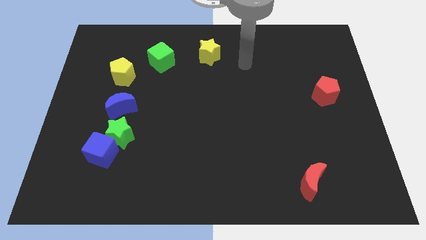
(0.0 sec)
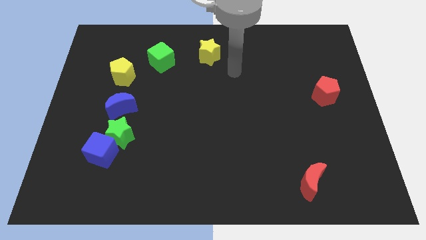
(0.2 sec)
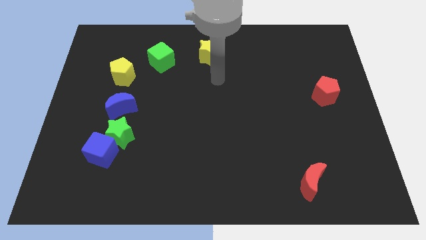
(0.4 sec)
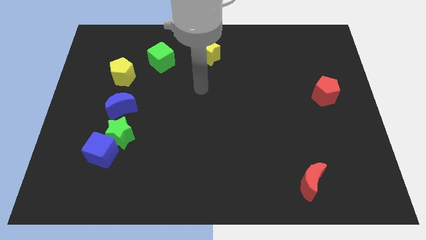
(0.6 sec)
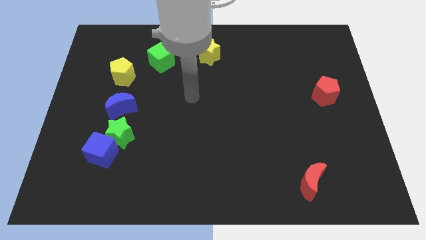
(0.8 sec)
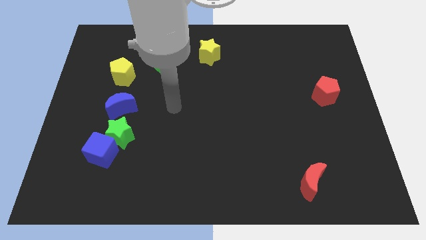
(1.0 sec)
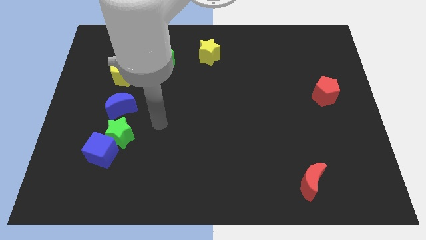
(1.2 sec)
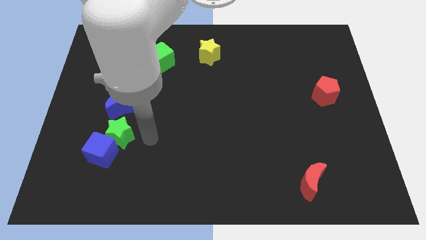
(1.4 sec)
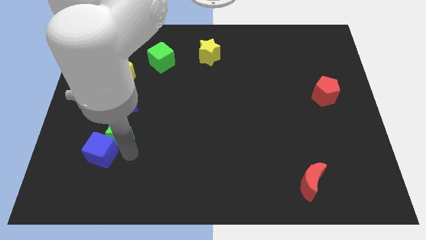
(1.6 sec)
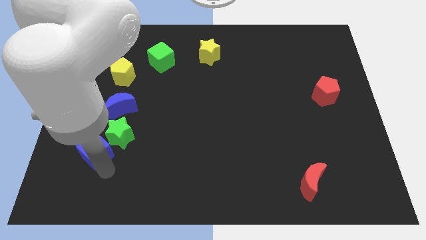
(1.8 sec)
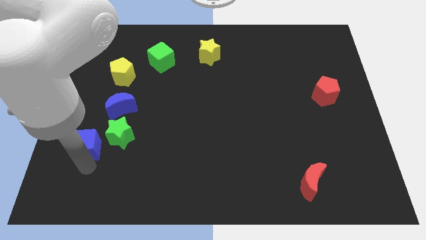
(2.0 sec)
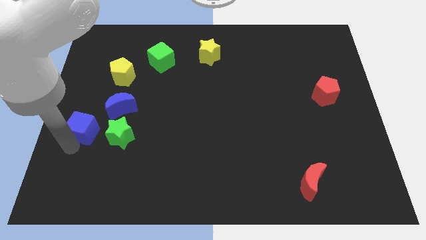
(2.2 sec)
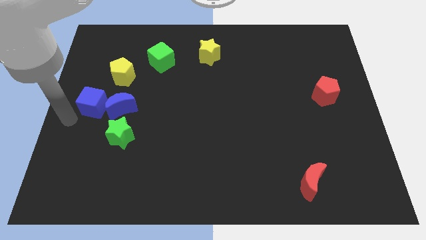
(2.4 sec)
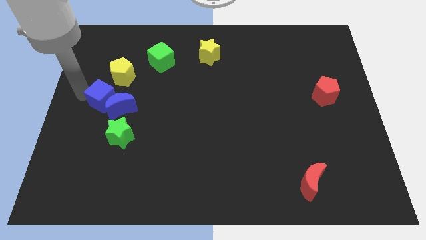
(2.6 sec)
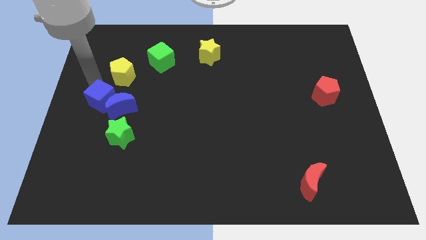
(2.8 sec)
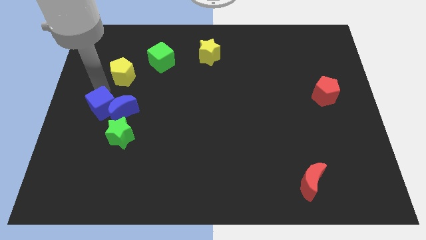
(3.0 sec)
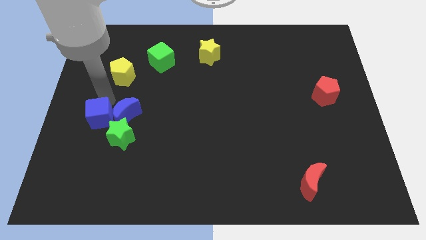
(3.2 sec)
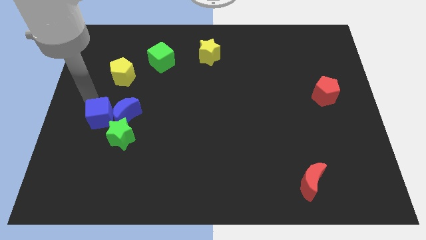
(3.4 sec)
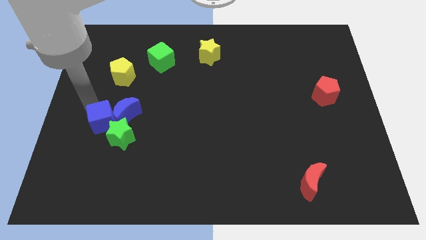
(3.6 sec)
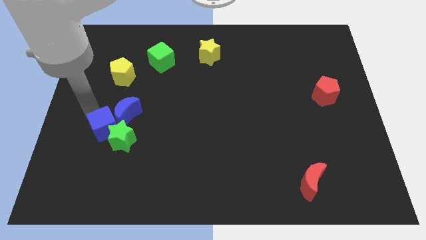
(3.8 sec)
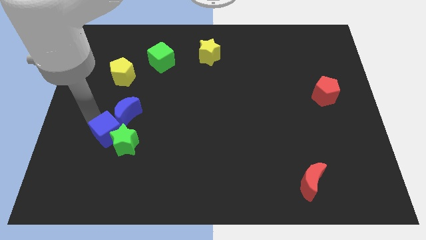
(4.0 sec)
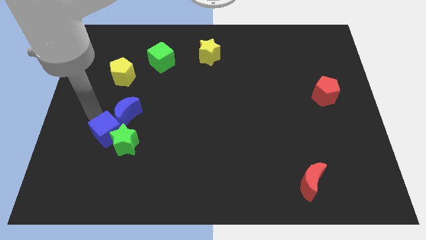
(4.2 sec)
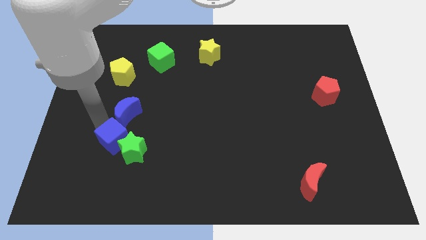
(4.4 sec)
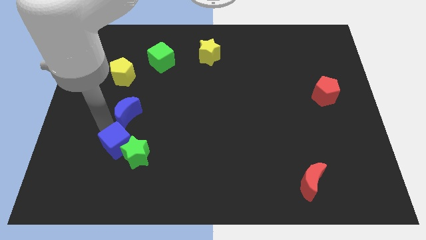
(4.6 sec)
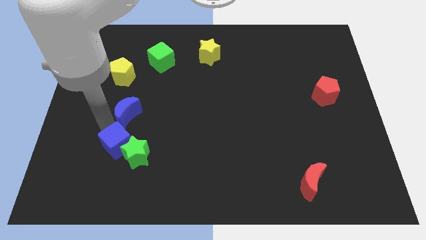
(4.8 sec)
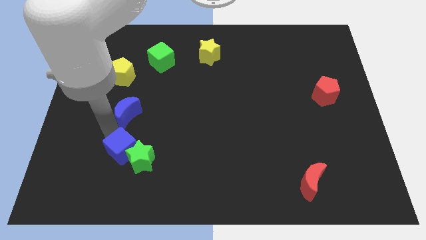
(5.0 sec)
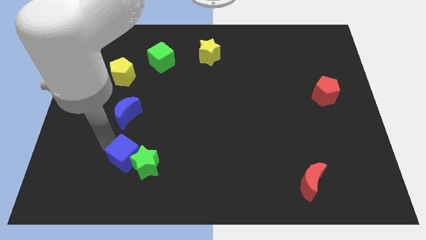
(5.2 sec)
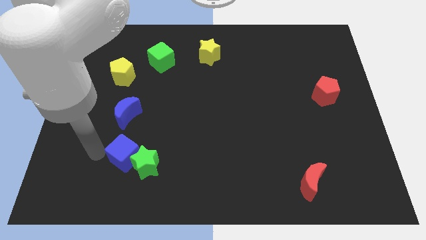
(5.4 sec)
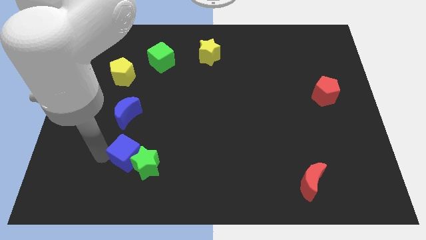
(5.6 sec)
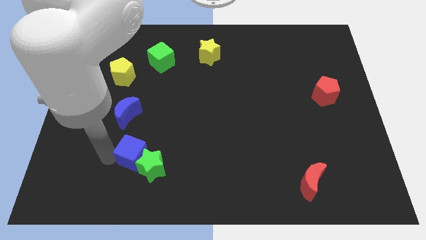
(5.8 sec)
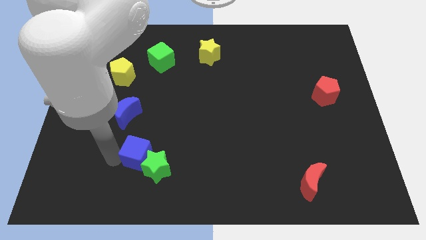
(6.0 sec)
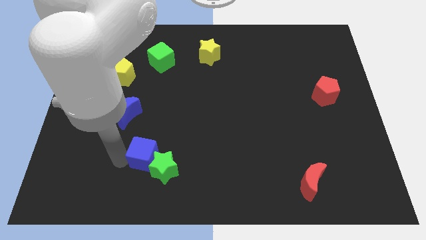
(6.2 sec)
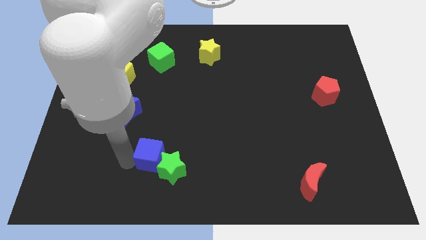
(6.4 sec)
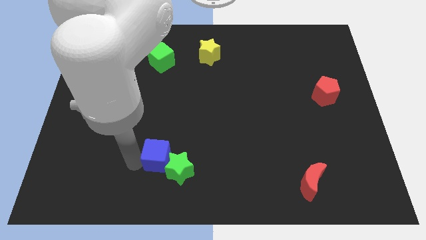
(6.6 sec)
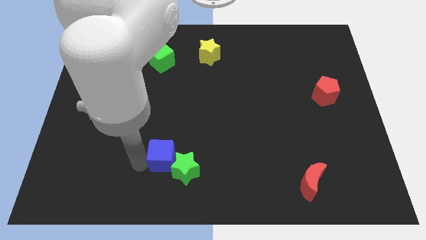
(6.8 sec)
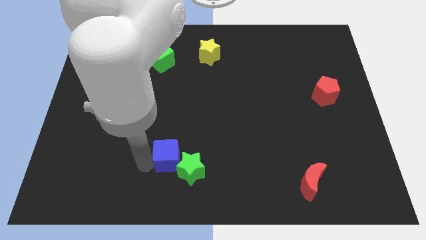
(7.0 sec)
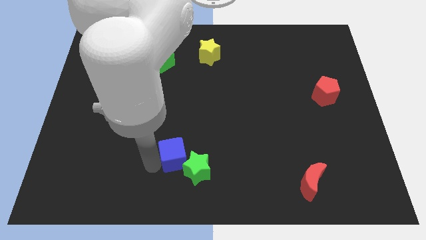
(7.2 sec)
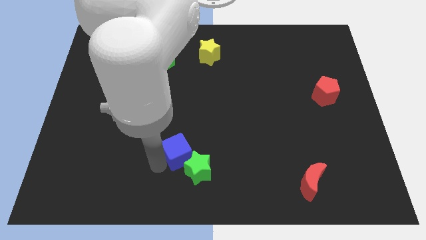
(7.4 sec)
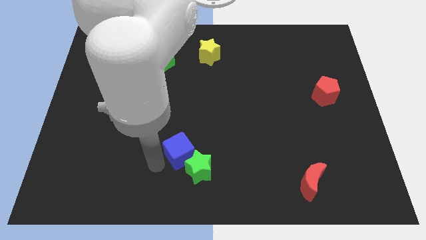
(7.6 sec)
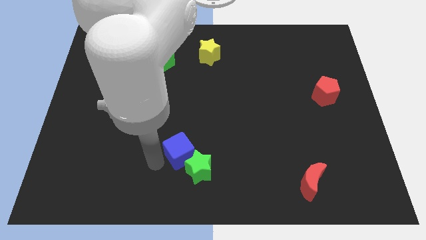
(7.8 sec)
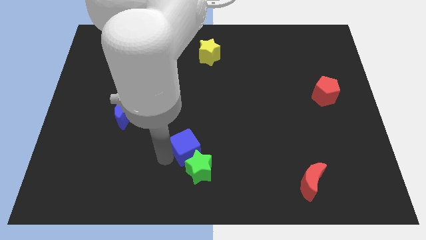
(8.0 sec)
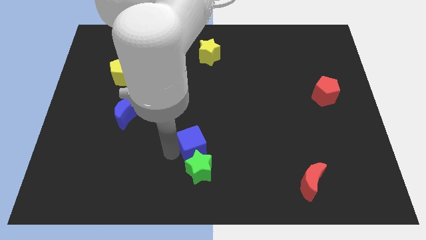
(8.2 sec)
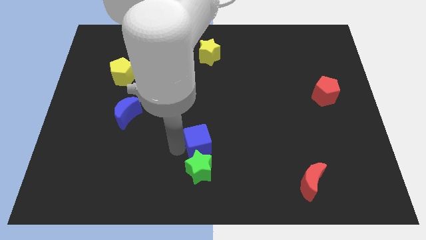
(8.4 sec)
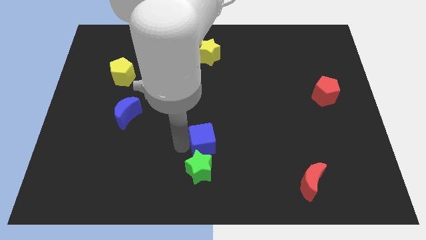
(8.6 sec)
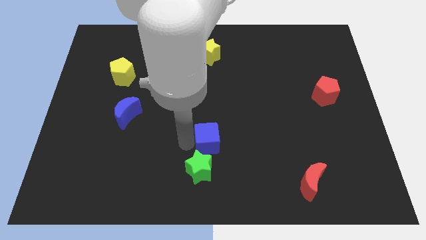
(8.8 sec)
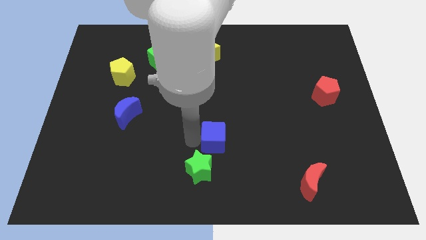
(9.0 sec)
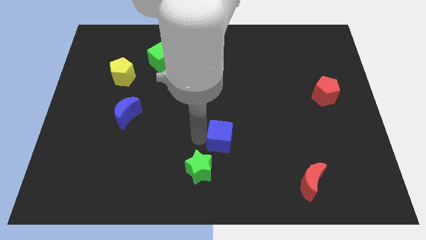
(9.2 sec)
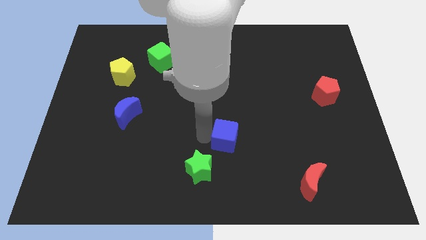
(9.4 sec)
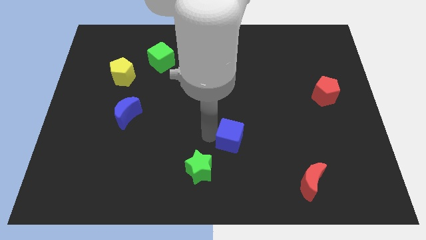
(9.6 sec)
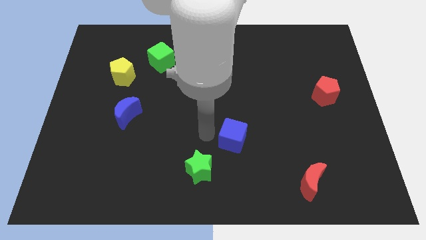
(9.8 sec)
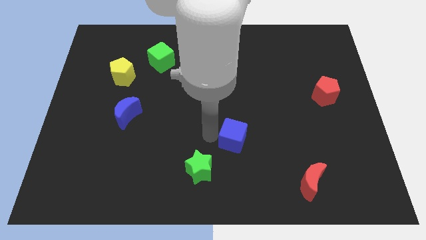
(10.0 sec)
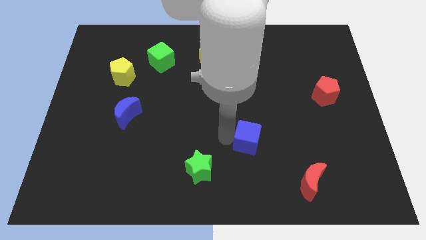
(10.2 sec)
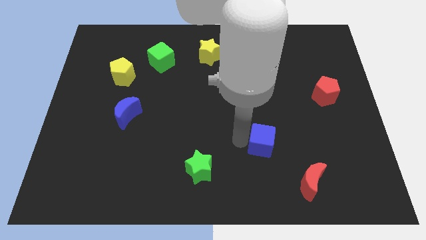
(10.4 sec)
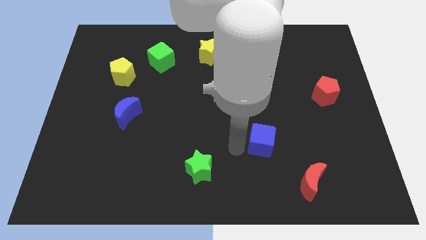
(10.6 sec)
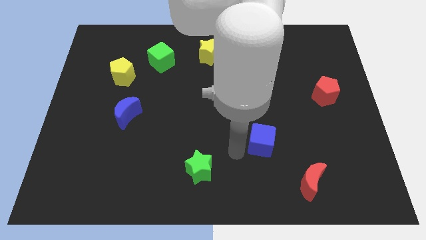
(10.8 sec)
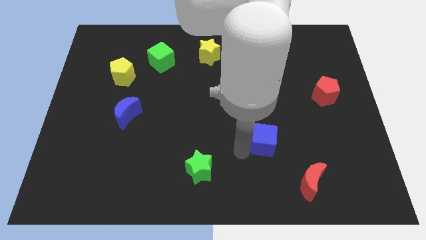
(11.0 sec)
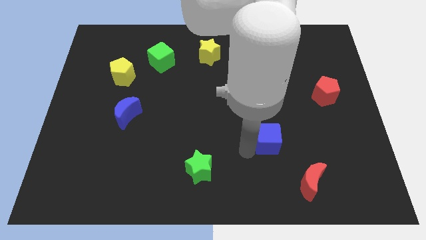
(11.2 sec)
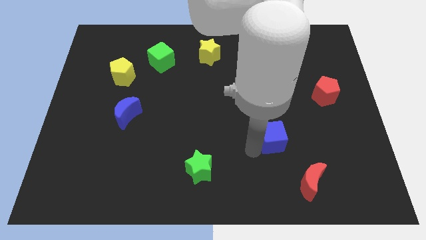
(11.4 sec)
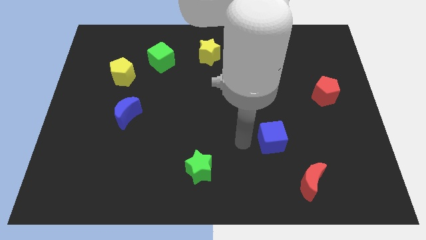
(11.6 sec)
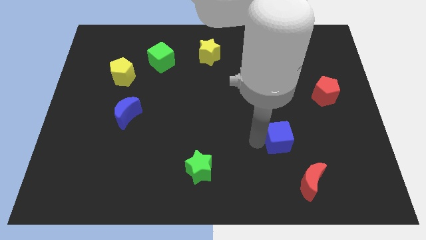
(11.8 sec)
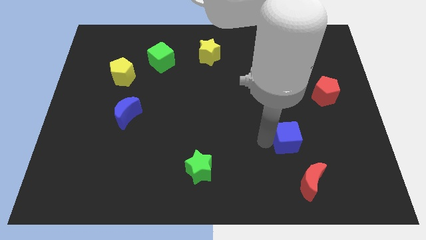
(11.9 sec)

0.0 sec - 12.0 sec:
put the blue cube to the top of the red moon

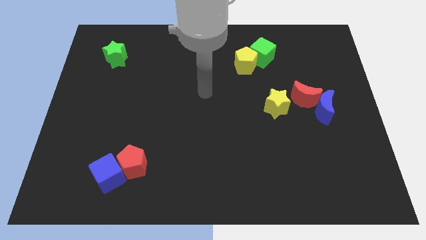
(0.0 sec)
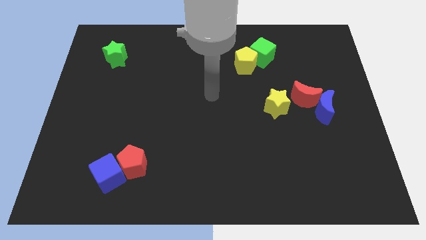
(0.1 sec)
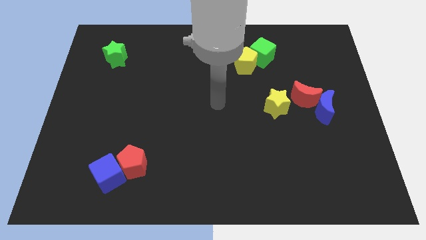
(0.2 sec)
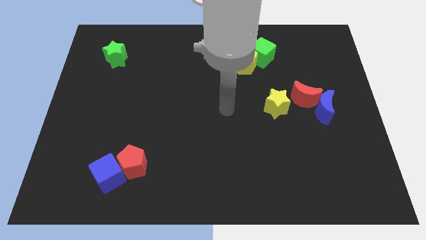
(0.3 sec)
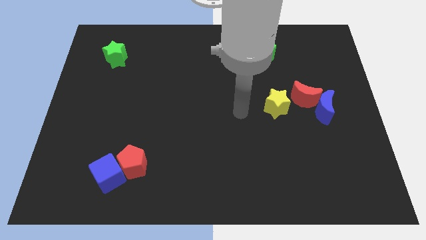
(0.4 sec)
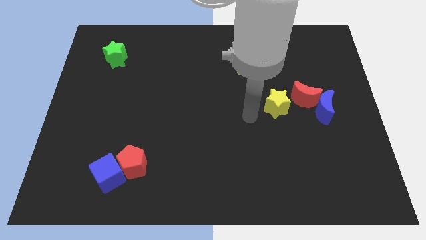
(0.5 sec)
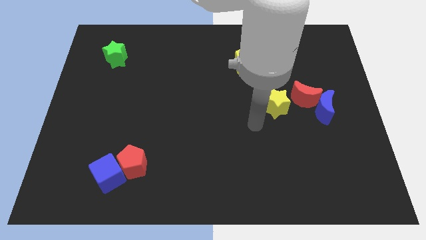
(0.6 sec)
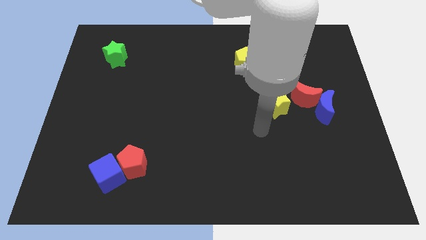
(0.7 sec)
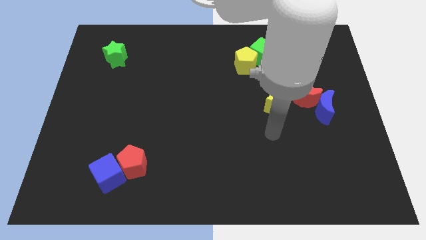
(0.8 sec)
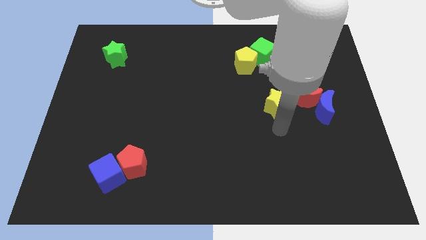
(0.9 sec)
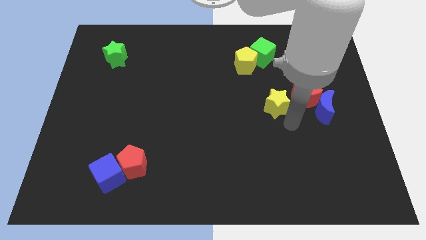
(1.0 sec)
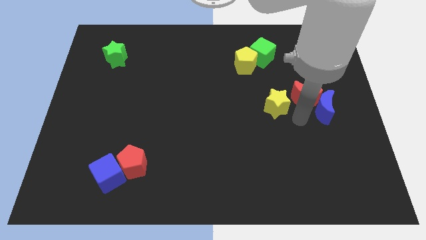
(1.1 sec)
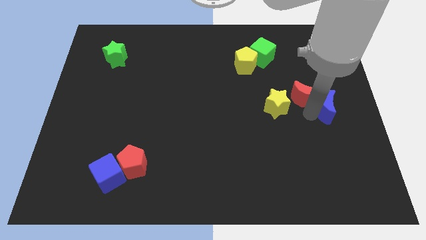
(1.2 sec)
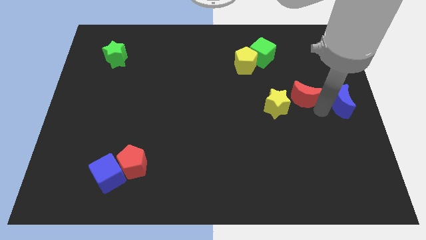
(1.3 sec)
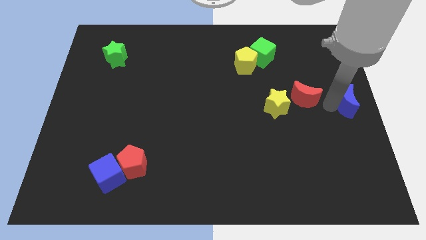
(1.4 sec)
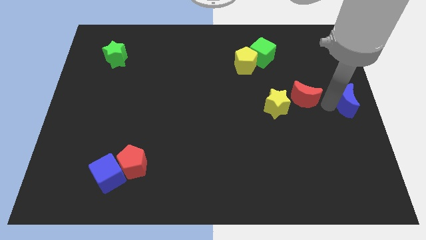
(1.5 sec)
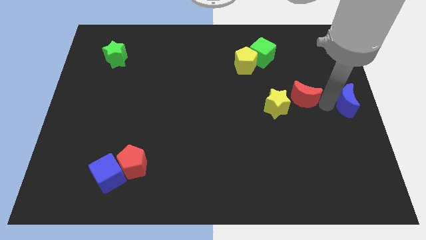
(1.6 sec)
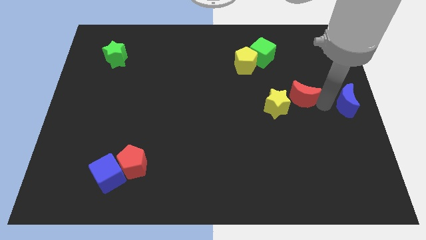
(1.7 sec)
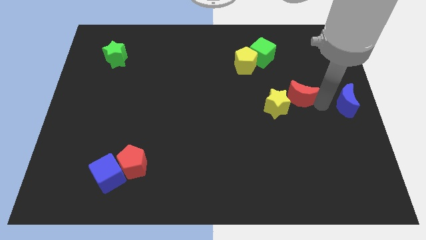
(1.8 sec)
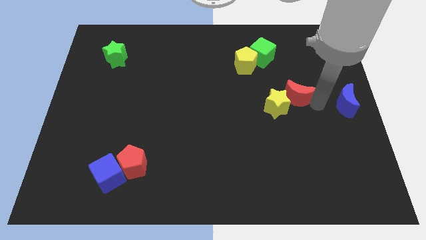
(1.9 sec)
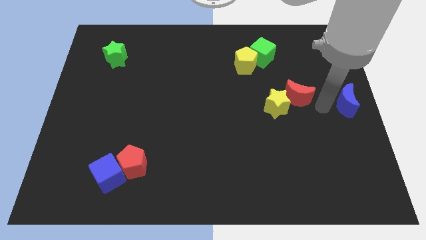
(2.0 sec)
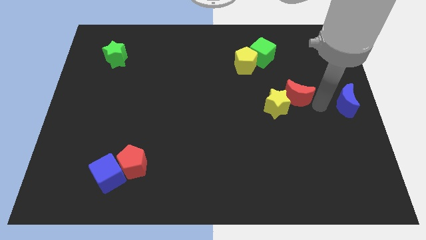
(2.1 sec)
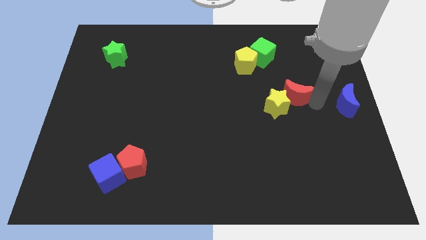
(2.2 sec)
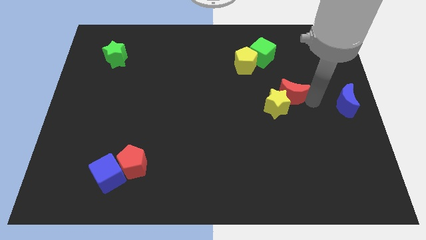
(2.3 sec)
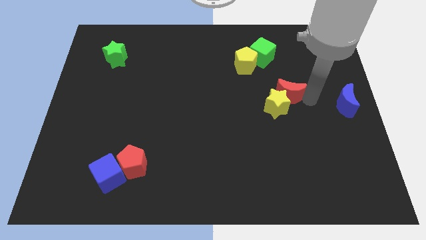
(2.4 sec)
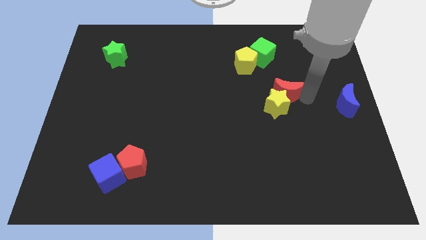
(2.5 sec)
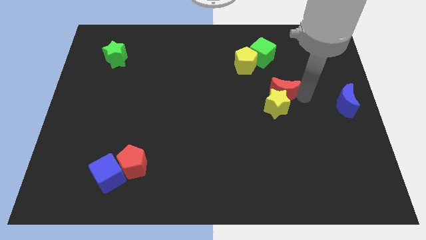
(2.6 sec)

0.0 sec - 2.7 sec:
push the red moon to the bottom side of the green cube
